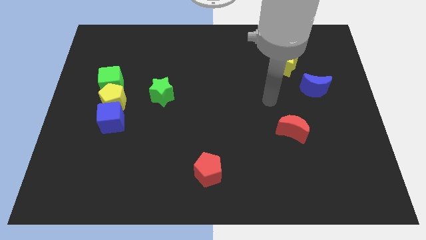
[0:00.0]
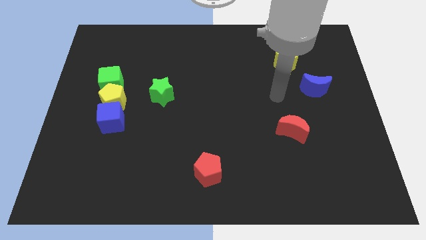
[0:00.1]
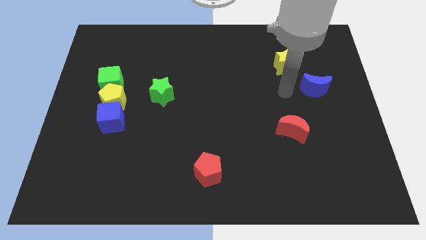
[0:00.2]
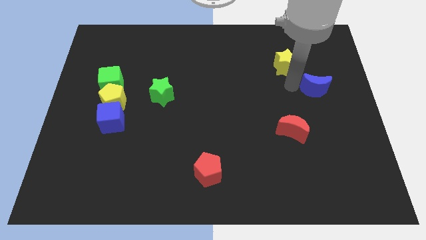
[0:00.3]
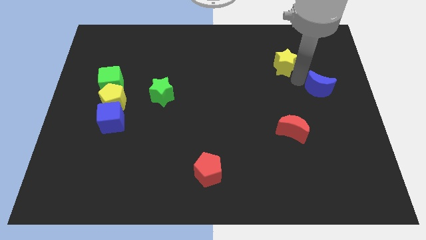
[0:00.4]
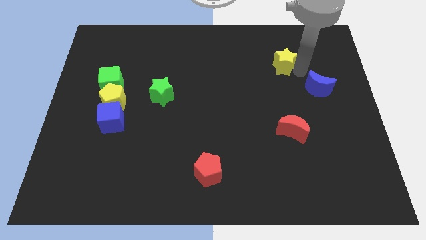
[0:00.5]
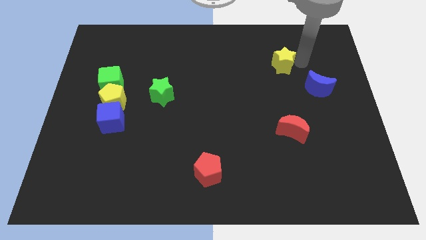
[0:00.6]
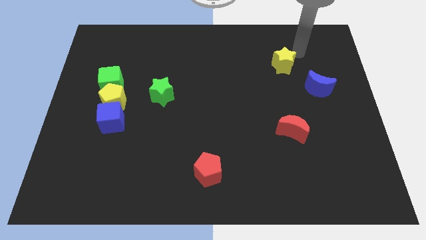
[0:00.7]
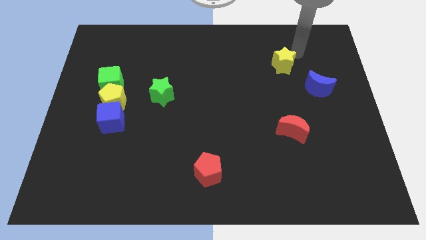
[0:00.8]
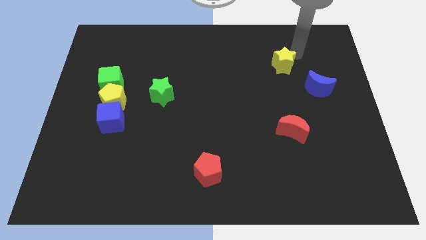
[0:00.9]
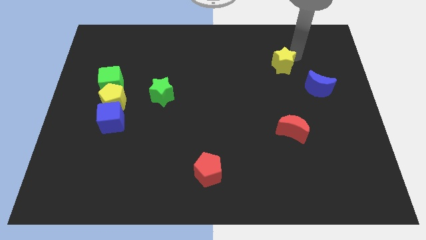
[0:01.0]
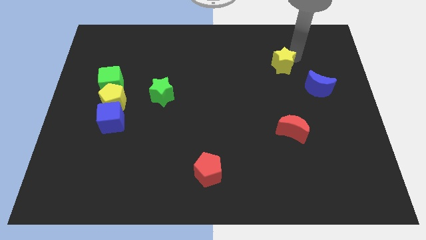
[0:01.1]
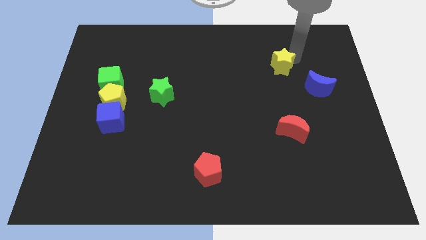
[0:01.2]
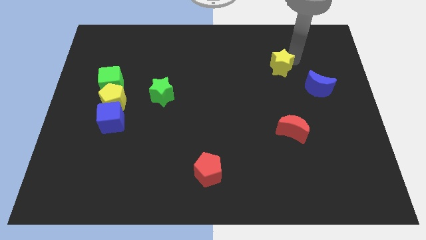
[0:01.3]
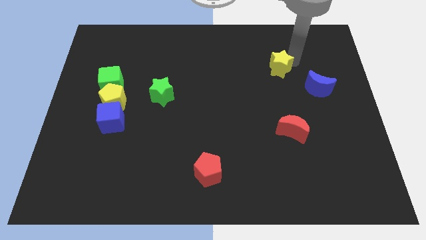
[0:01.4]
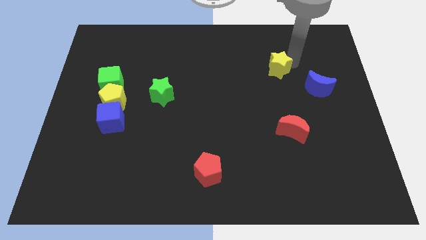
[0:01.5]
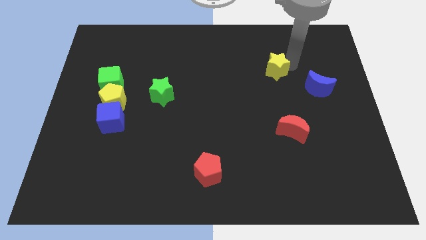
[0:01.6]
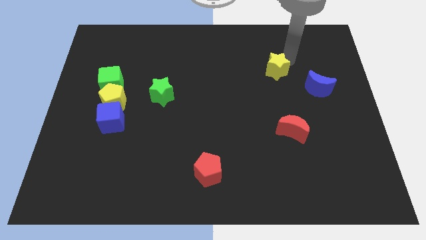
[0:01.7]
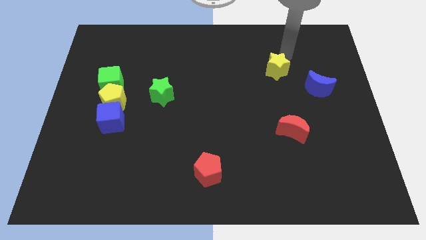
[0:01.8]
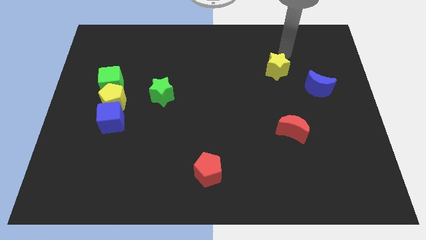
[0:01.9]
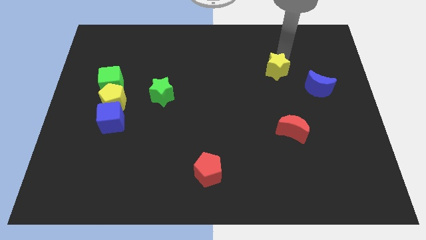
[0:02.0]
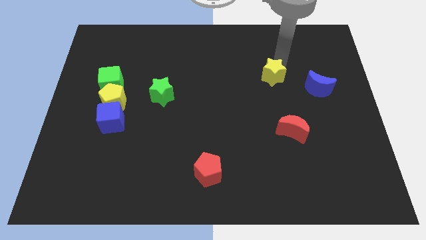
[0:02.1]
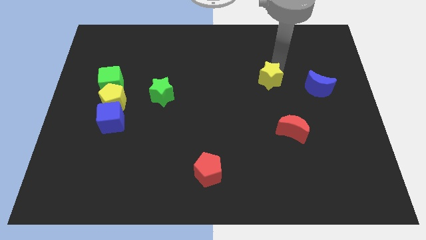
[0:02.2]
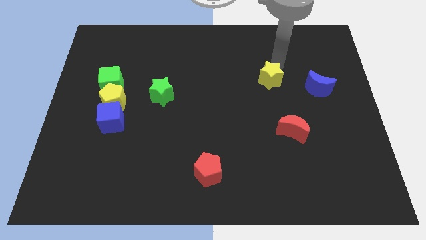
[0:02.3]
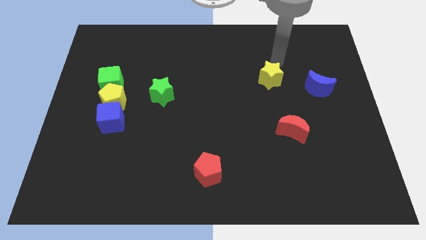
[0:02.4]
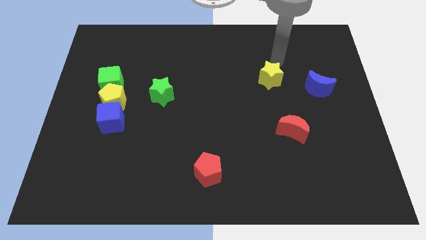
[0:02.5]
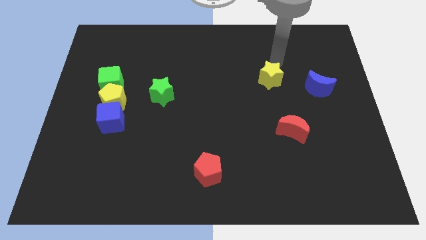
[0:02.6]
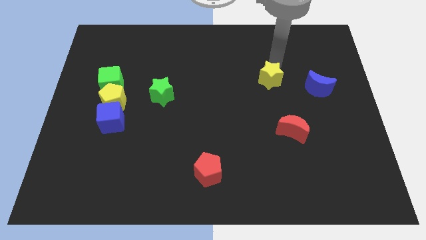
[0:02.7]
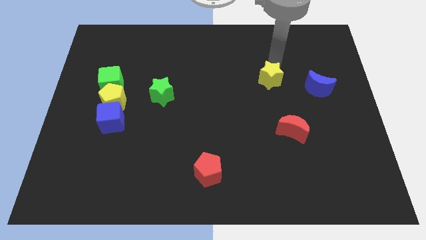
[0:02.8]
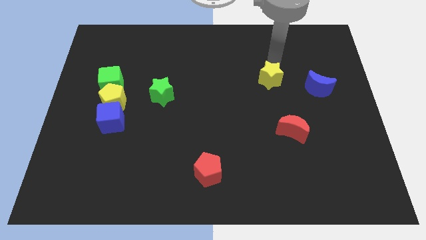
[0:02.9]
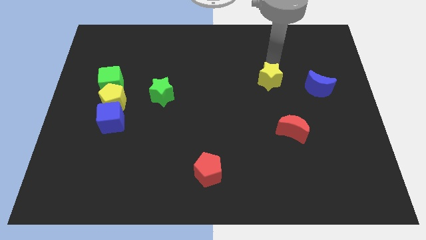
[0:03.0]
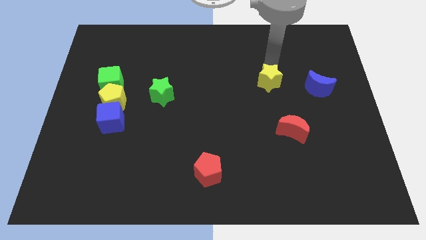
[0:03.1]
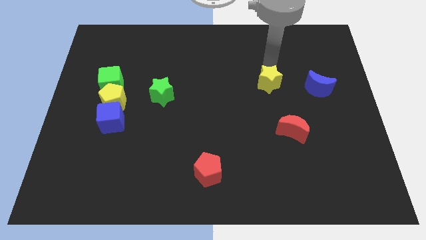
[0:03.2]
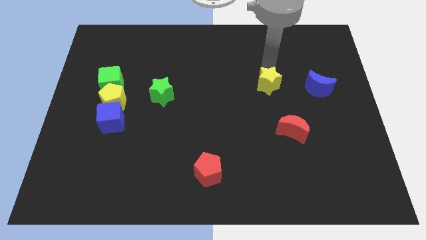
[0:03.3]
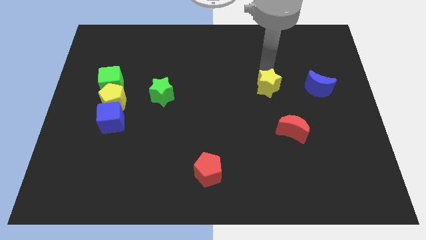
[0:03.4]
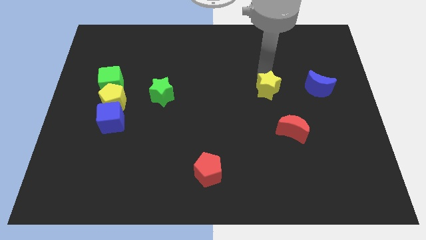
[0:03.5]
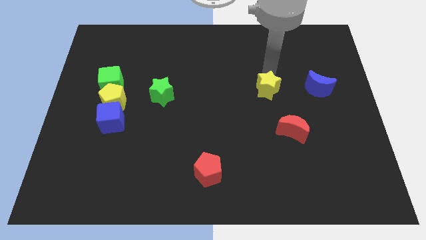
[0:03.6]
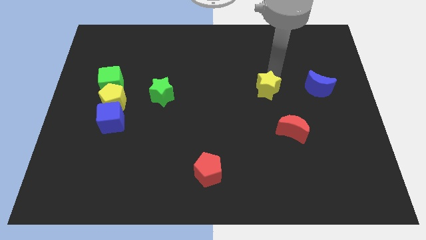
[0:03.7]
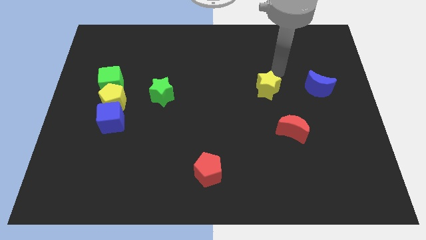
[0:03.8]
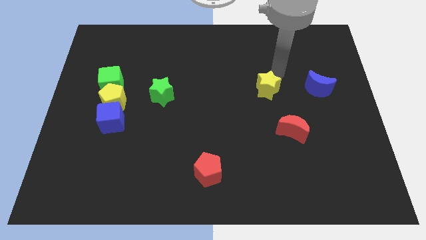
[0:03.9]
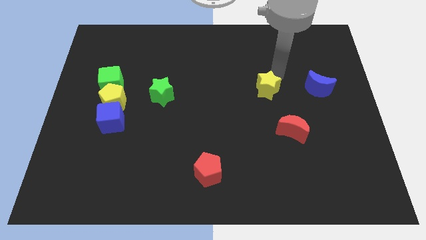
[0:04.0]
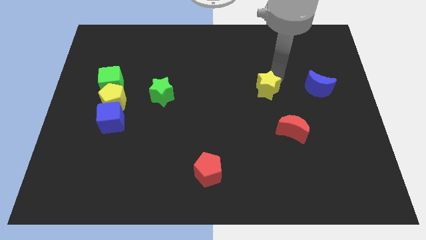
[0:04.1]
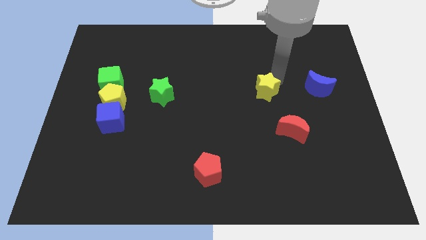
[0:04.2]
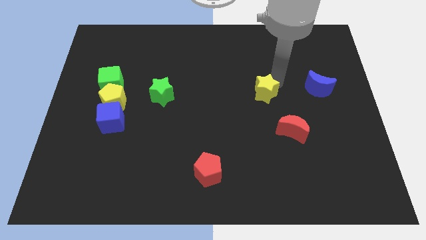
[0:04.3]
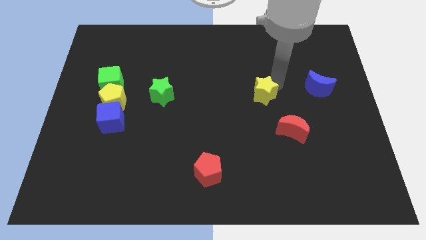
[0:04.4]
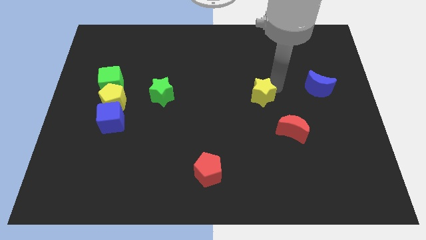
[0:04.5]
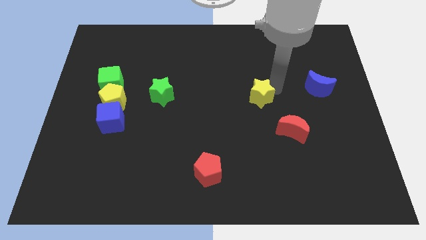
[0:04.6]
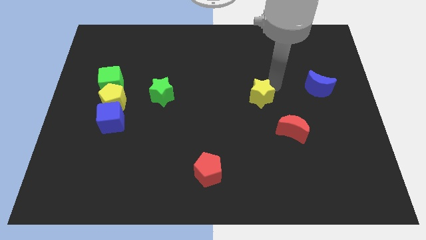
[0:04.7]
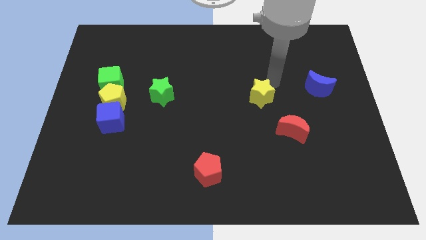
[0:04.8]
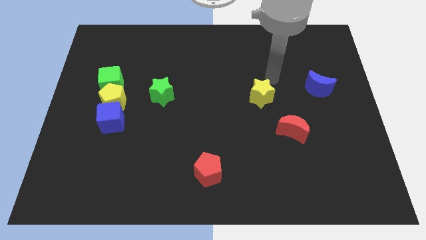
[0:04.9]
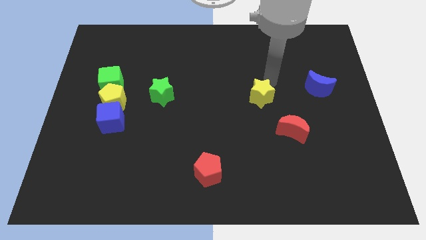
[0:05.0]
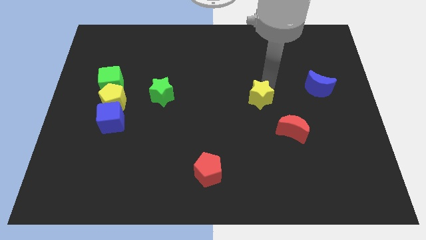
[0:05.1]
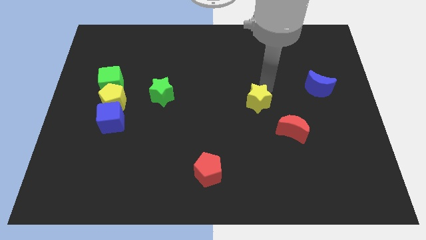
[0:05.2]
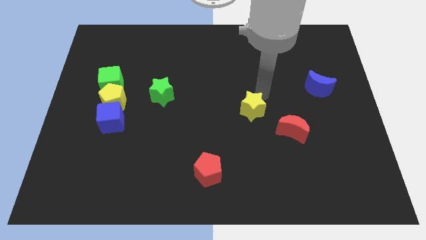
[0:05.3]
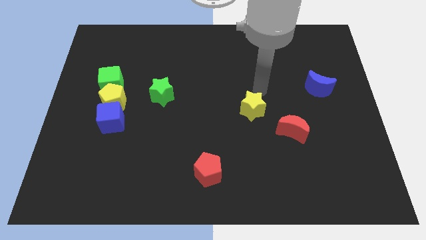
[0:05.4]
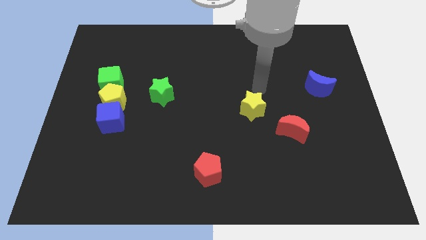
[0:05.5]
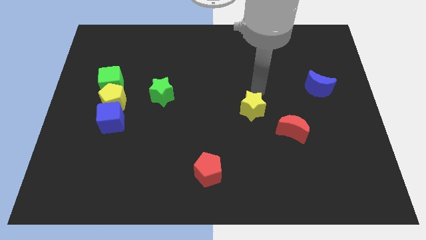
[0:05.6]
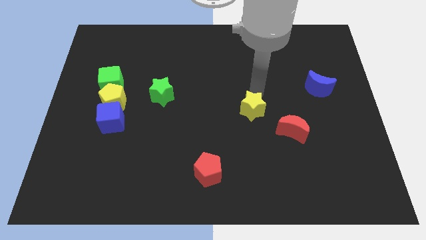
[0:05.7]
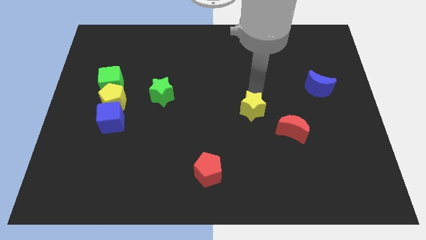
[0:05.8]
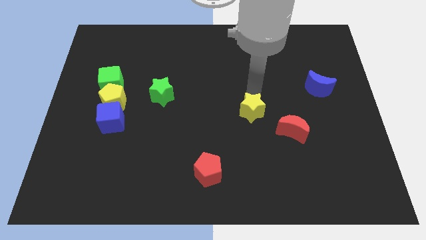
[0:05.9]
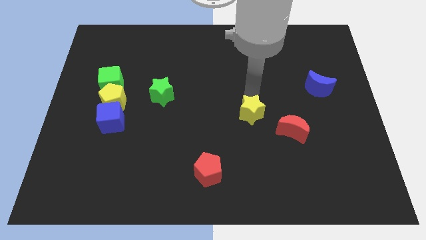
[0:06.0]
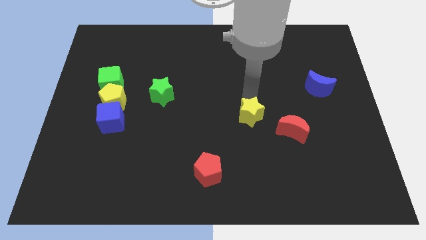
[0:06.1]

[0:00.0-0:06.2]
put the yellow star to the left of the red moon

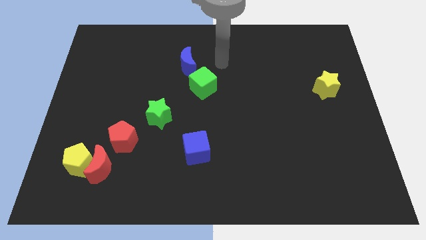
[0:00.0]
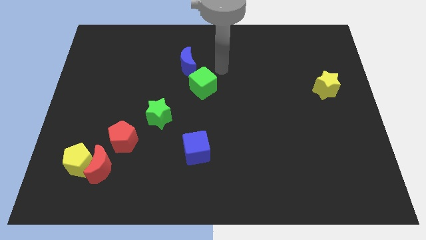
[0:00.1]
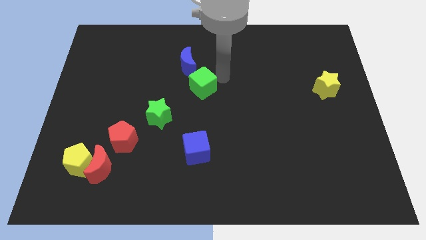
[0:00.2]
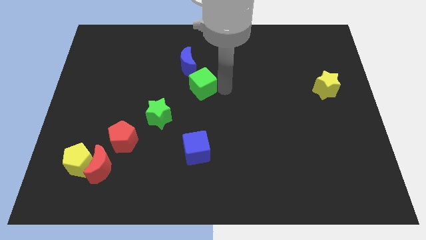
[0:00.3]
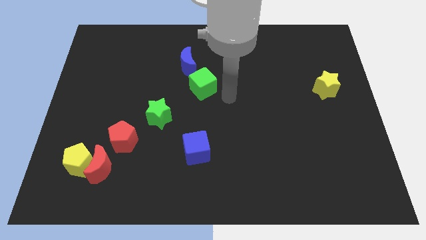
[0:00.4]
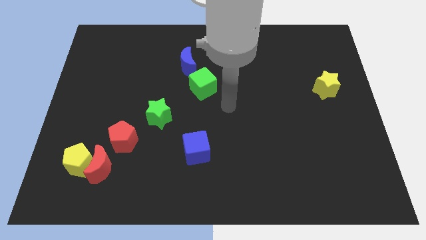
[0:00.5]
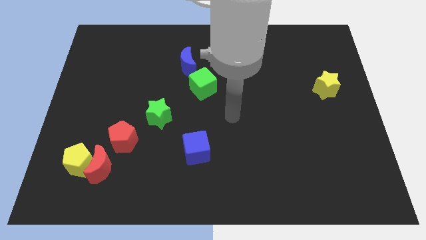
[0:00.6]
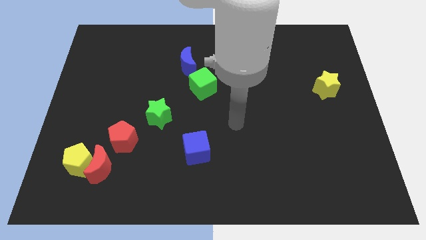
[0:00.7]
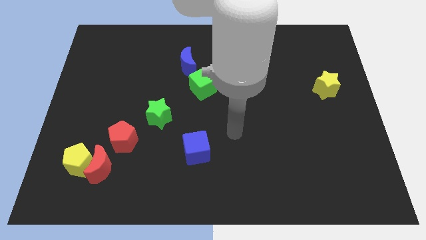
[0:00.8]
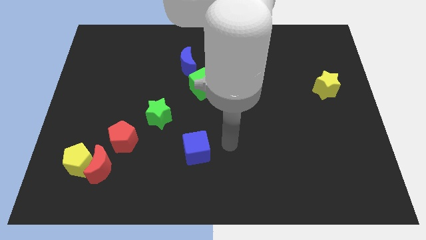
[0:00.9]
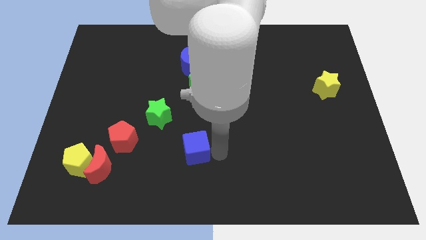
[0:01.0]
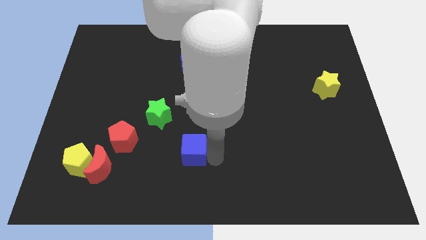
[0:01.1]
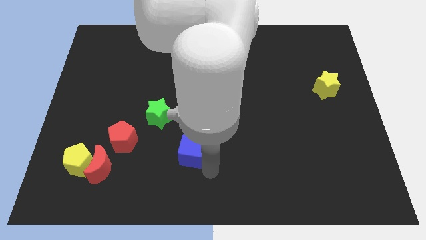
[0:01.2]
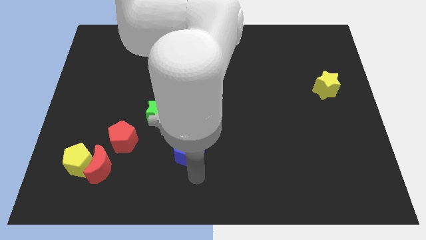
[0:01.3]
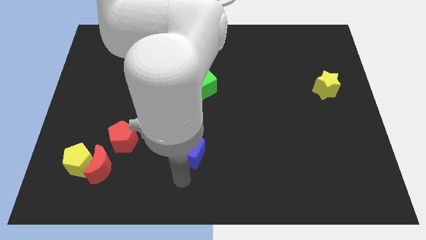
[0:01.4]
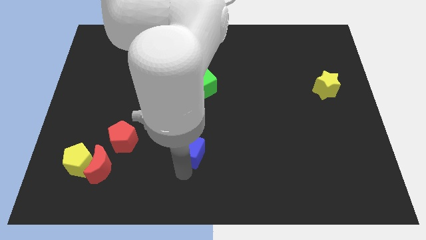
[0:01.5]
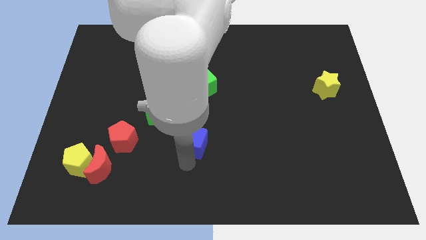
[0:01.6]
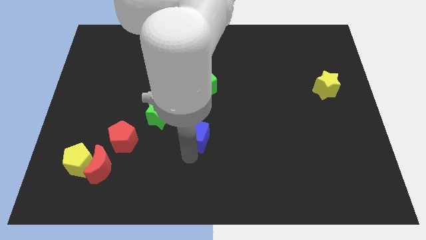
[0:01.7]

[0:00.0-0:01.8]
slide the blue cube to the bottom side of the green cube
